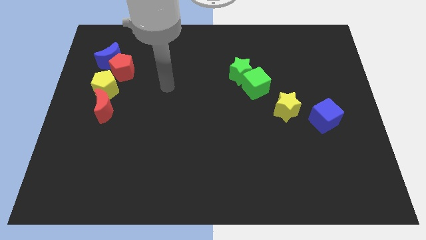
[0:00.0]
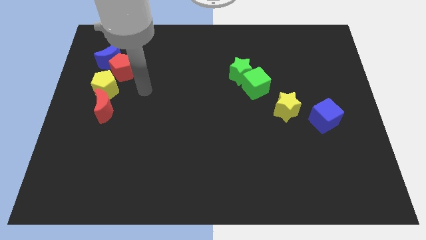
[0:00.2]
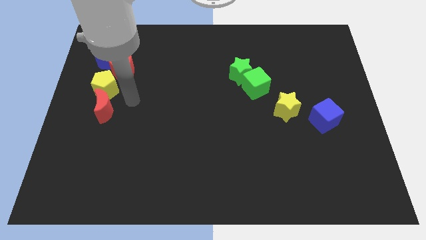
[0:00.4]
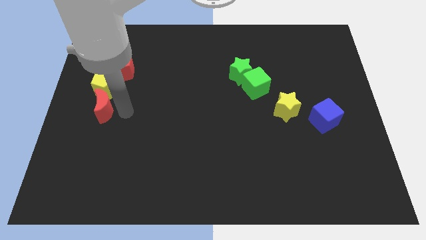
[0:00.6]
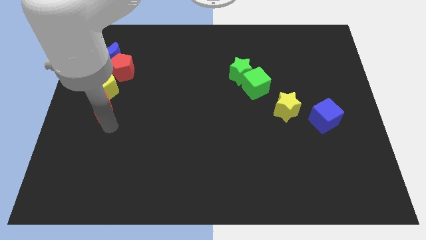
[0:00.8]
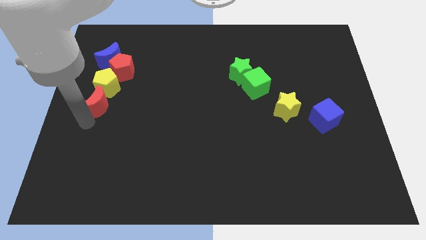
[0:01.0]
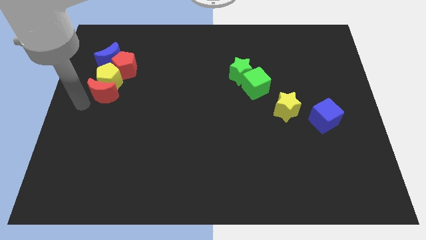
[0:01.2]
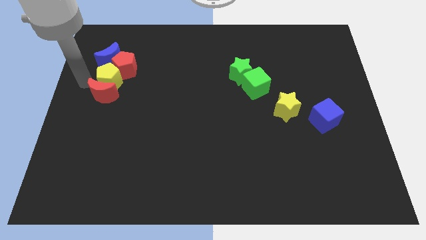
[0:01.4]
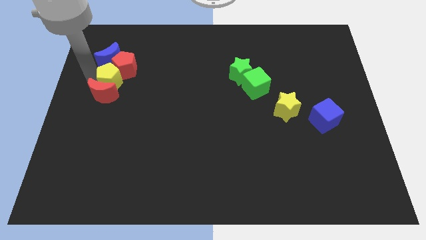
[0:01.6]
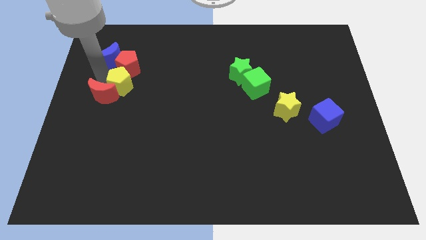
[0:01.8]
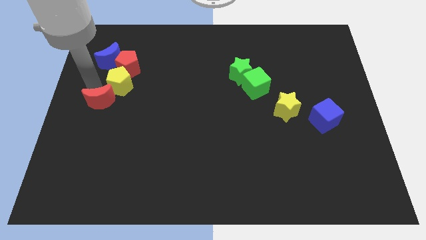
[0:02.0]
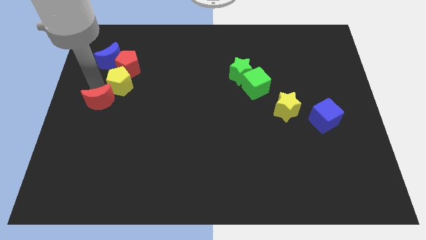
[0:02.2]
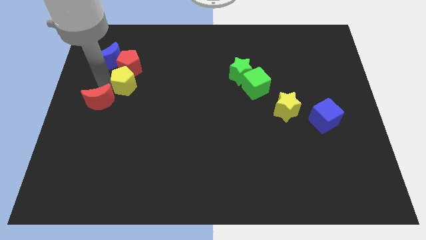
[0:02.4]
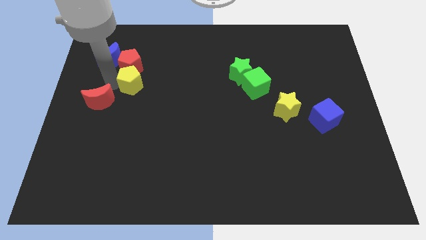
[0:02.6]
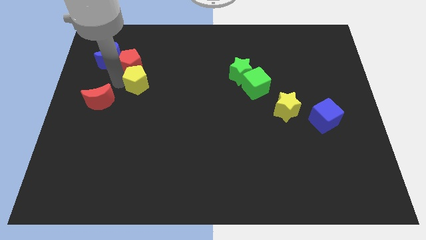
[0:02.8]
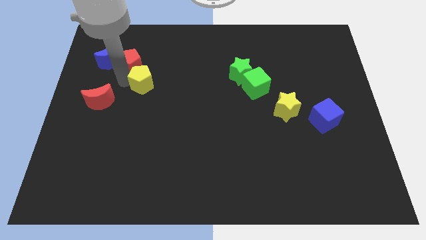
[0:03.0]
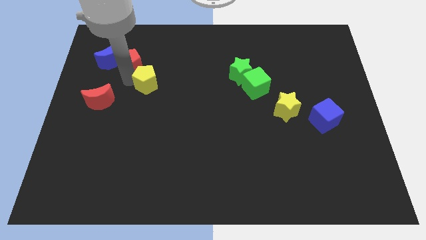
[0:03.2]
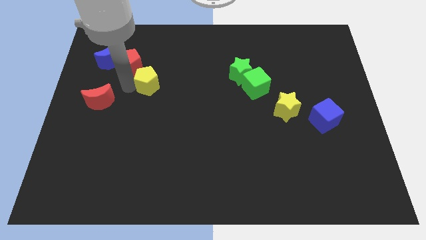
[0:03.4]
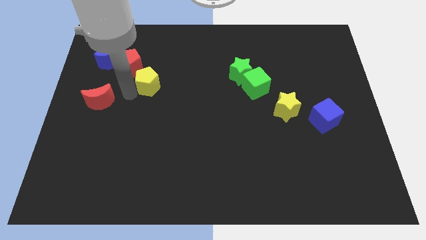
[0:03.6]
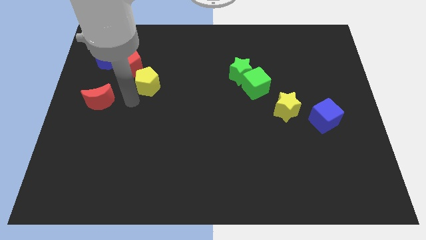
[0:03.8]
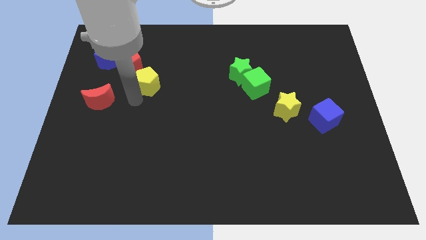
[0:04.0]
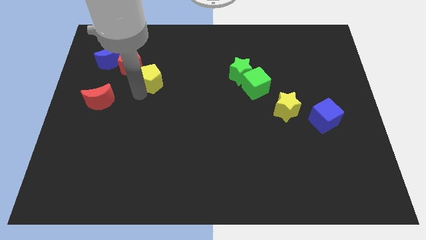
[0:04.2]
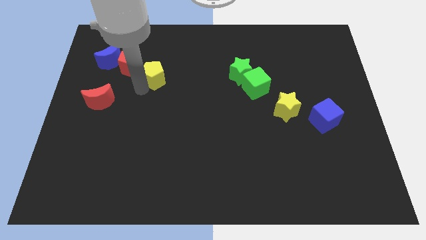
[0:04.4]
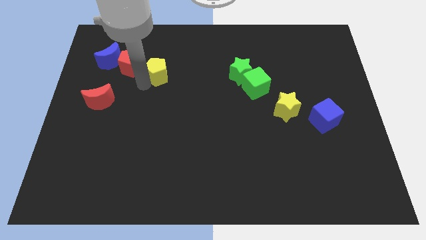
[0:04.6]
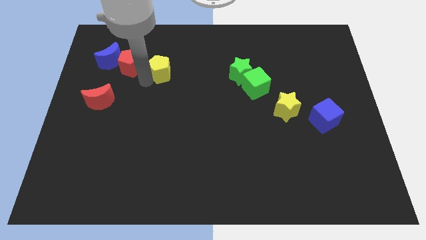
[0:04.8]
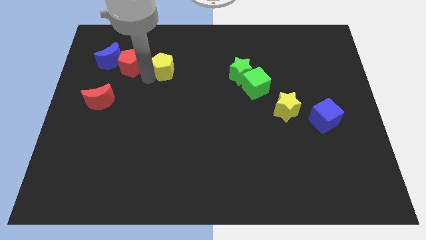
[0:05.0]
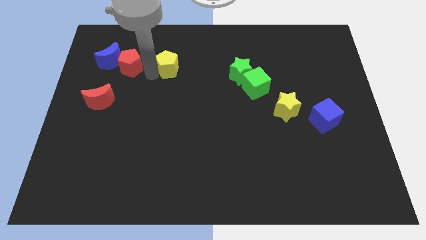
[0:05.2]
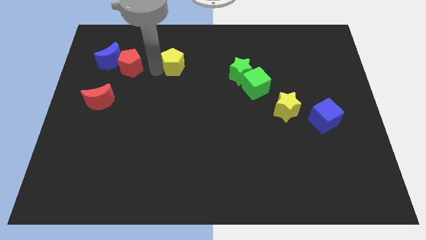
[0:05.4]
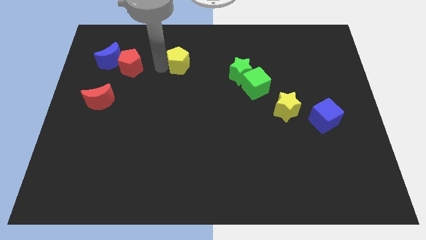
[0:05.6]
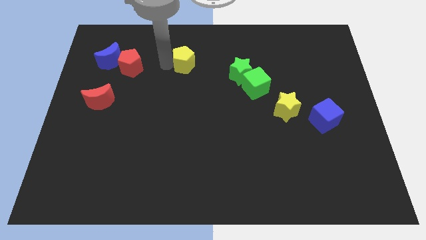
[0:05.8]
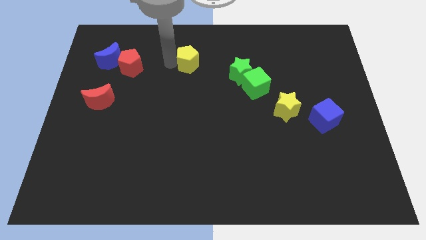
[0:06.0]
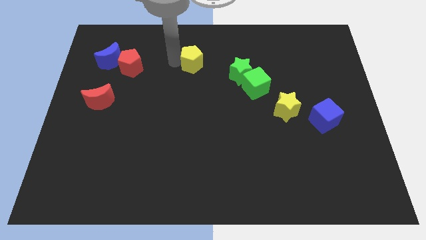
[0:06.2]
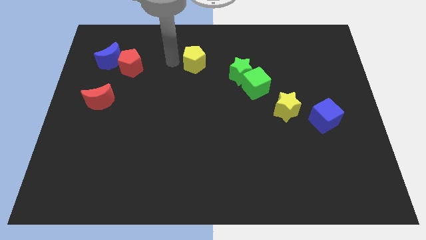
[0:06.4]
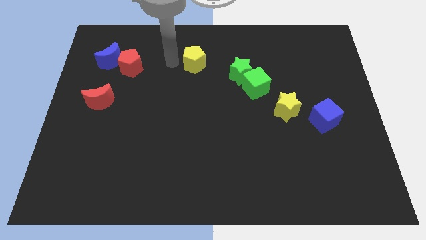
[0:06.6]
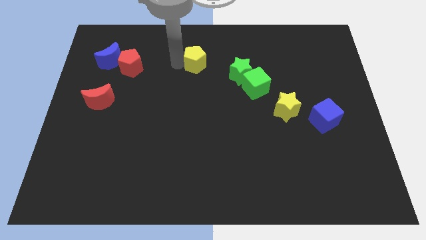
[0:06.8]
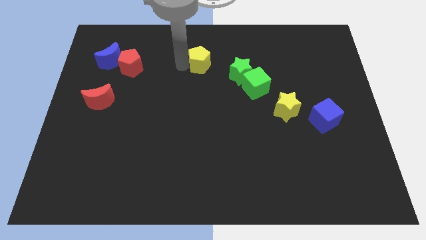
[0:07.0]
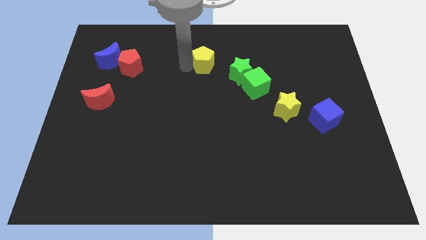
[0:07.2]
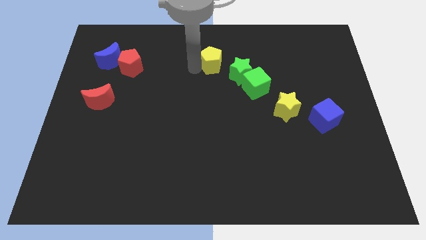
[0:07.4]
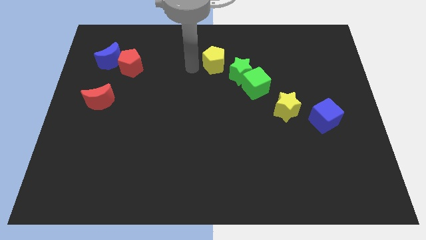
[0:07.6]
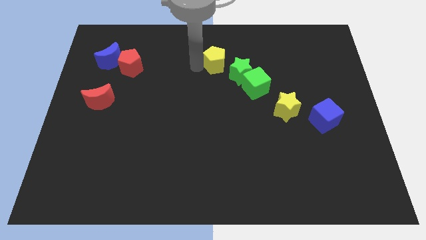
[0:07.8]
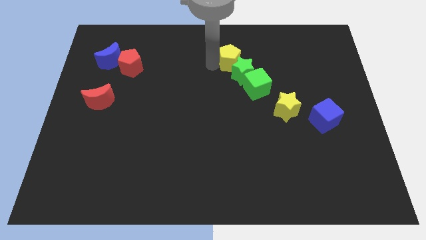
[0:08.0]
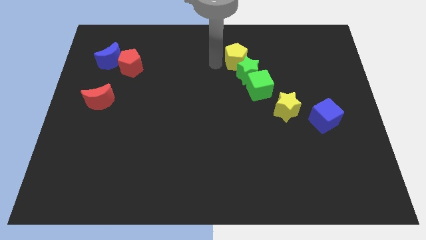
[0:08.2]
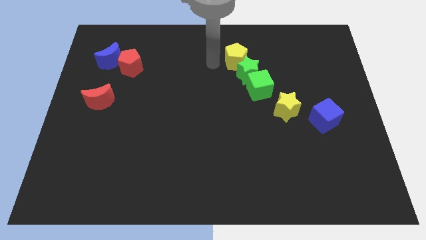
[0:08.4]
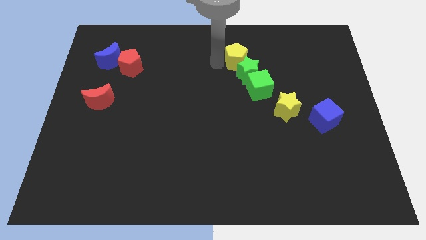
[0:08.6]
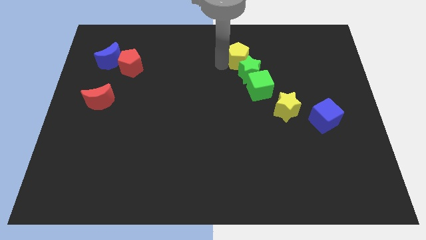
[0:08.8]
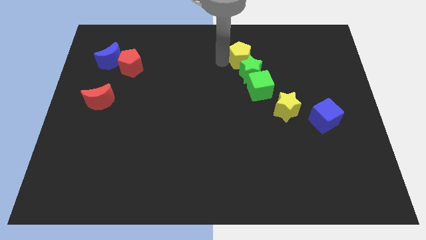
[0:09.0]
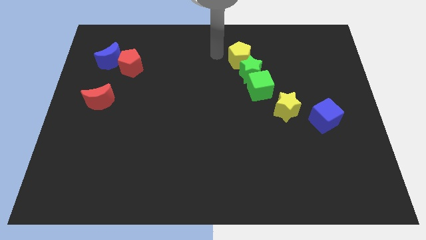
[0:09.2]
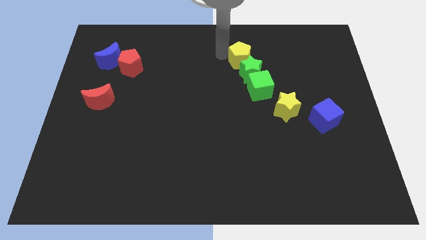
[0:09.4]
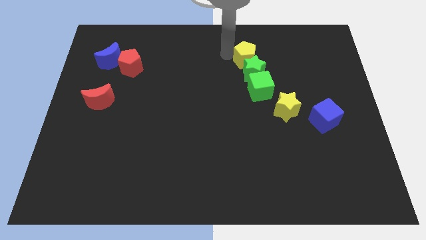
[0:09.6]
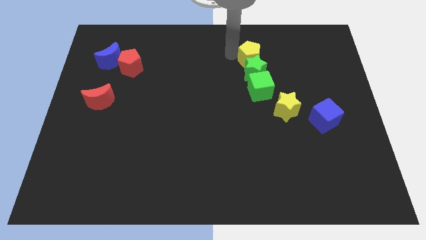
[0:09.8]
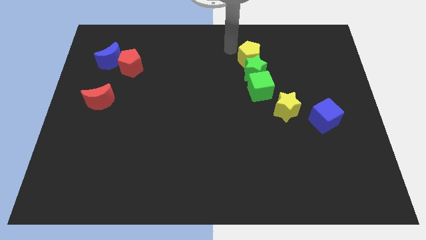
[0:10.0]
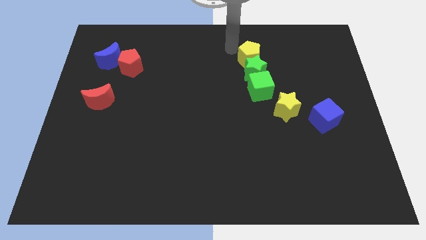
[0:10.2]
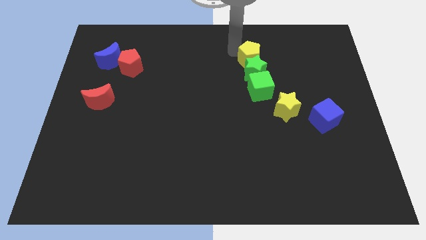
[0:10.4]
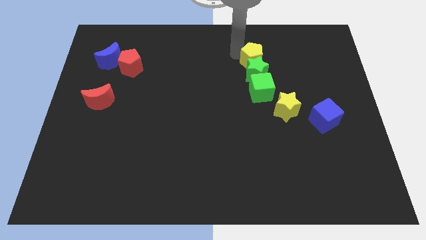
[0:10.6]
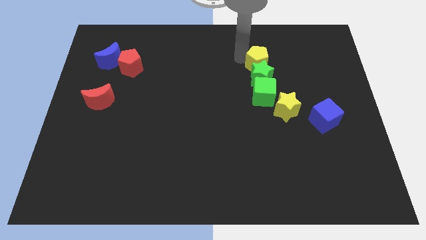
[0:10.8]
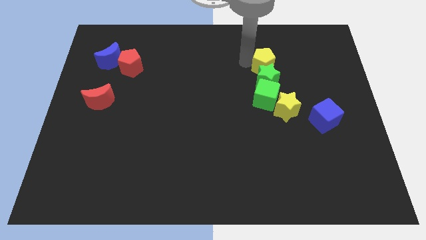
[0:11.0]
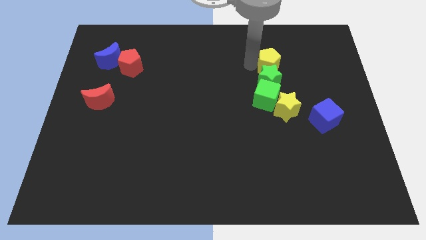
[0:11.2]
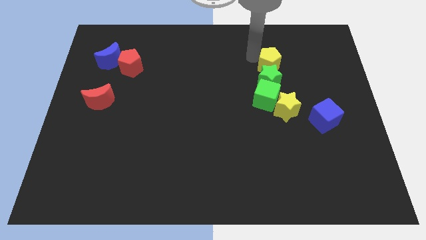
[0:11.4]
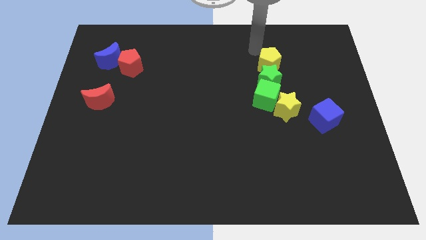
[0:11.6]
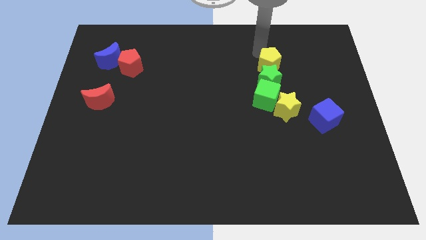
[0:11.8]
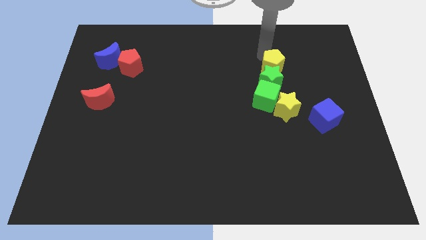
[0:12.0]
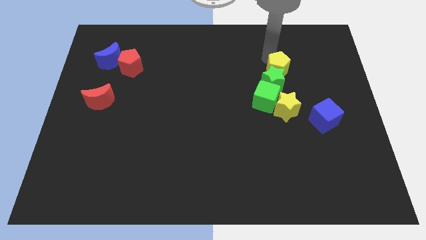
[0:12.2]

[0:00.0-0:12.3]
push the yellow pentagon diagonally up and to the right of the green cube

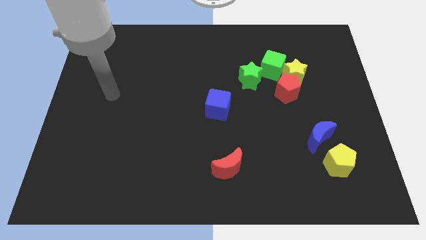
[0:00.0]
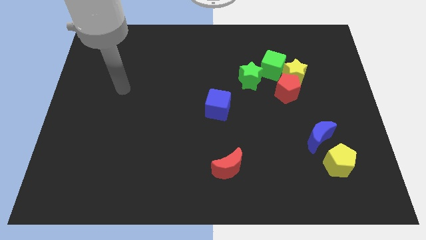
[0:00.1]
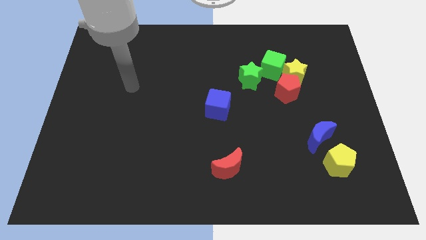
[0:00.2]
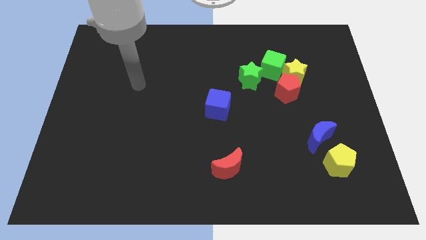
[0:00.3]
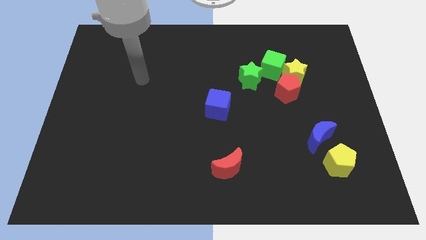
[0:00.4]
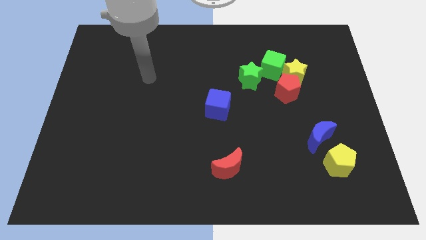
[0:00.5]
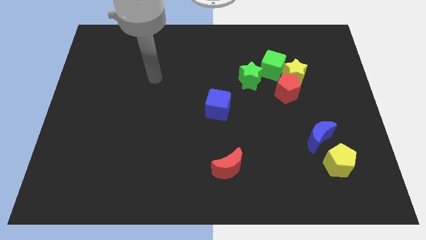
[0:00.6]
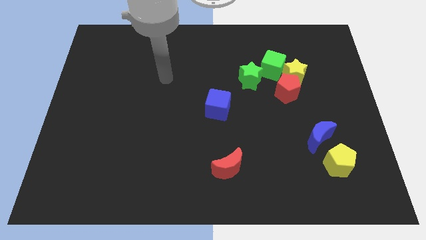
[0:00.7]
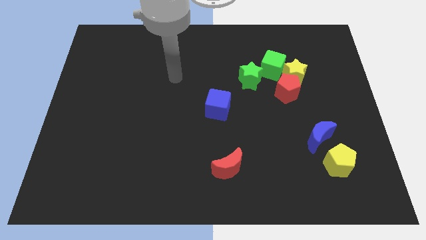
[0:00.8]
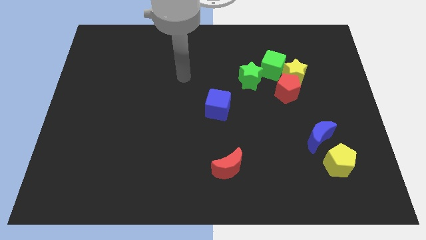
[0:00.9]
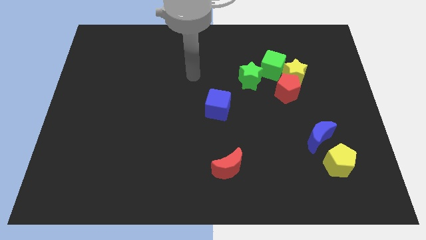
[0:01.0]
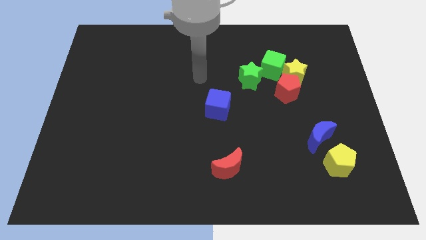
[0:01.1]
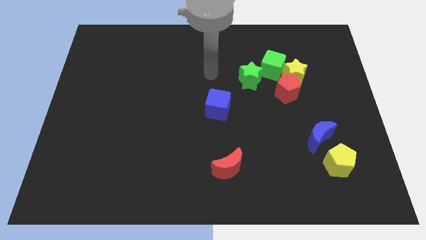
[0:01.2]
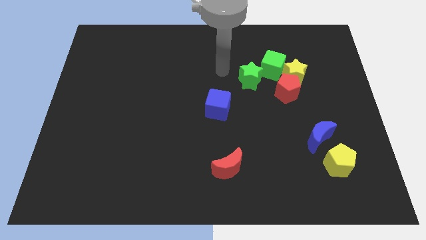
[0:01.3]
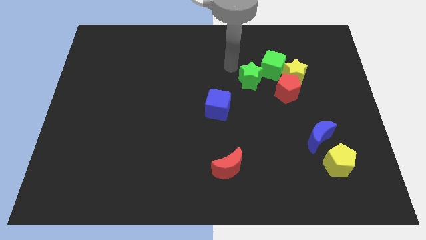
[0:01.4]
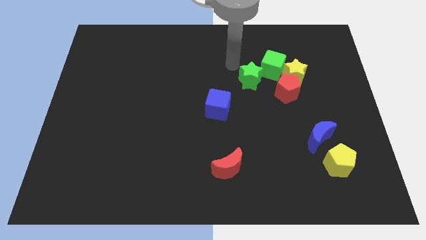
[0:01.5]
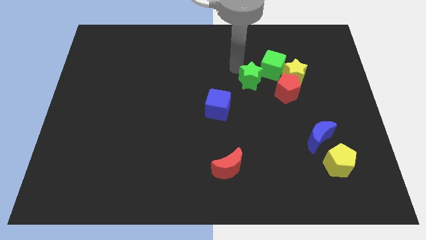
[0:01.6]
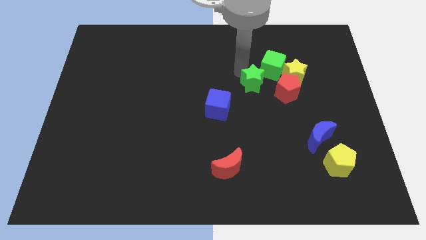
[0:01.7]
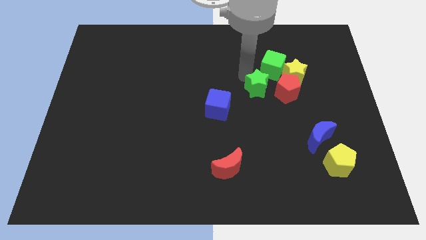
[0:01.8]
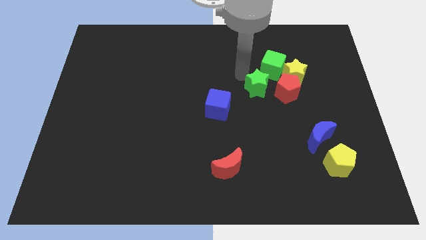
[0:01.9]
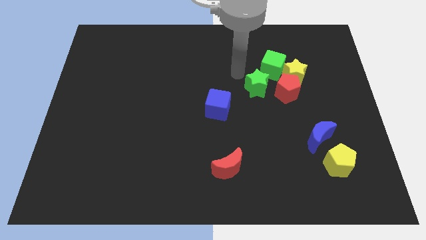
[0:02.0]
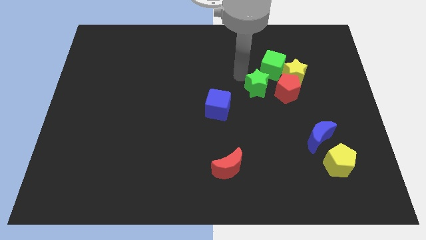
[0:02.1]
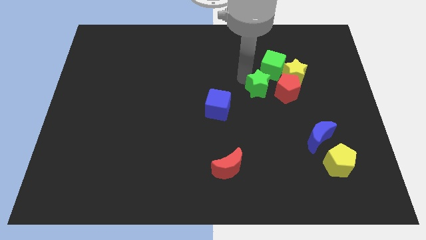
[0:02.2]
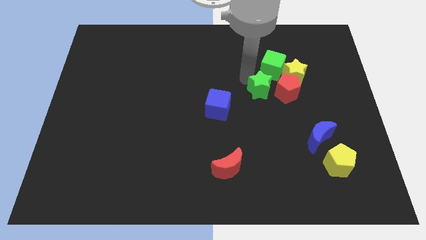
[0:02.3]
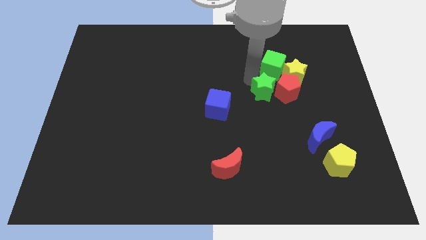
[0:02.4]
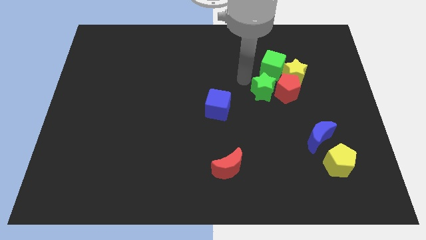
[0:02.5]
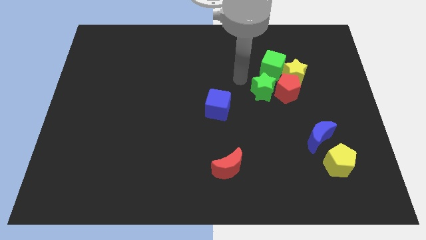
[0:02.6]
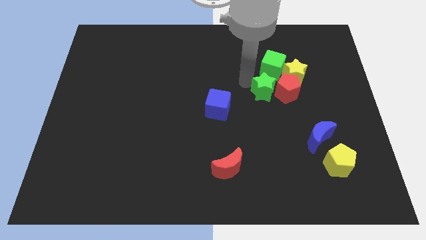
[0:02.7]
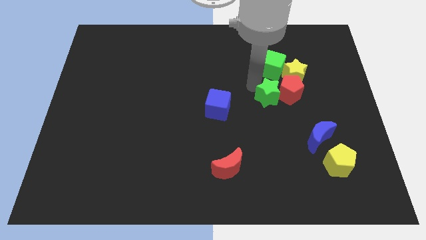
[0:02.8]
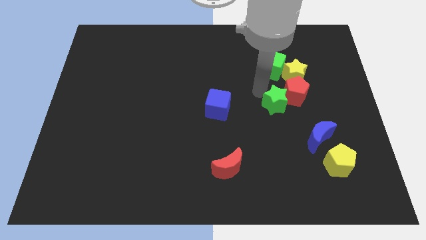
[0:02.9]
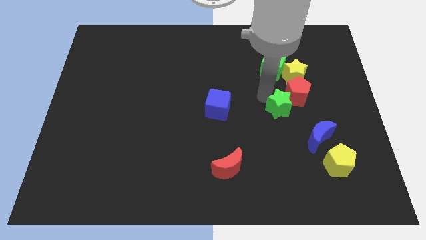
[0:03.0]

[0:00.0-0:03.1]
push the green star to the bottom of the yellow star
